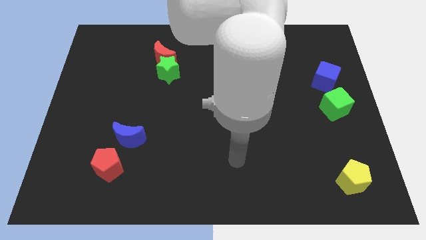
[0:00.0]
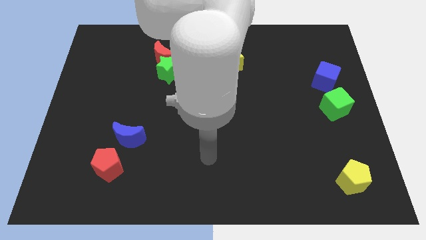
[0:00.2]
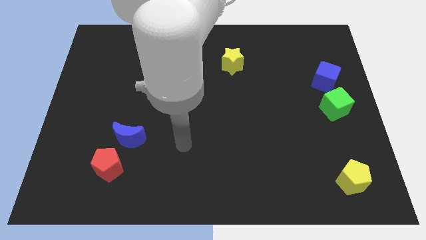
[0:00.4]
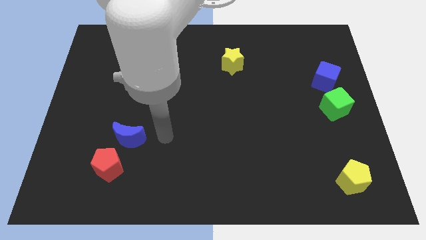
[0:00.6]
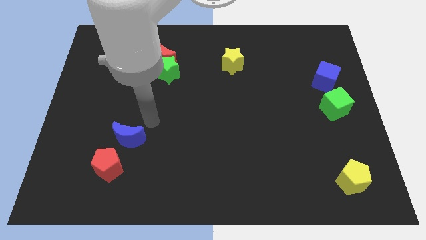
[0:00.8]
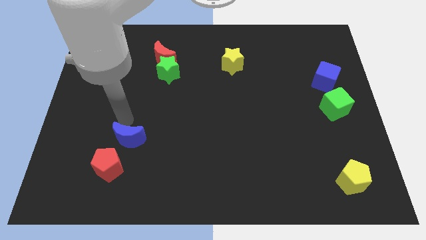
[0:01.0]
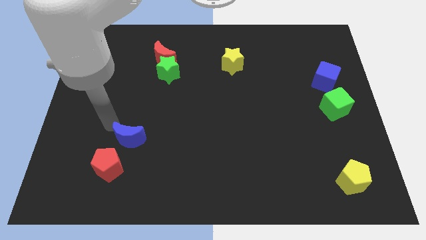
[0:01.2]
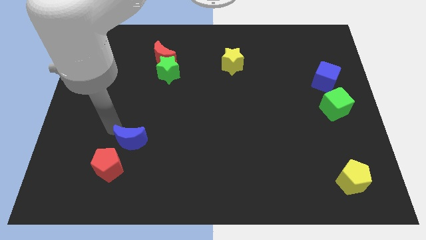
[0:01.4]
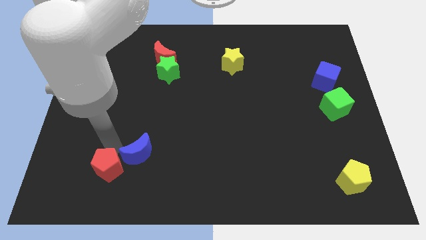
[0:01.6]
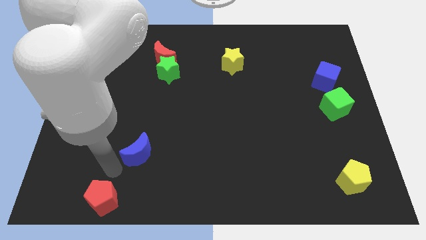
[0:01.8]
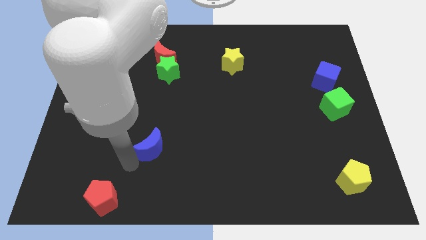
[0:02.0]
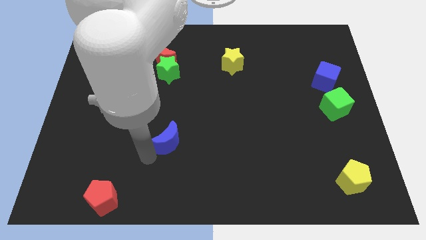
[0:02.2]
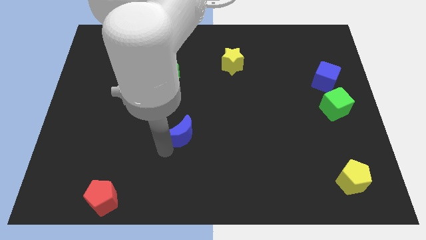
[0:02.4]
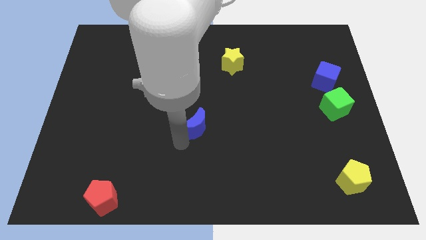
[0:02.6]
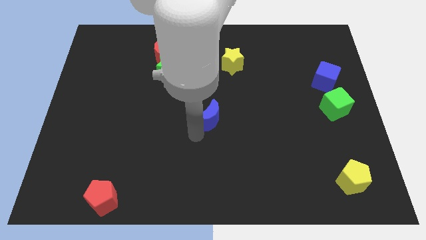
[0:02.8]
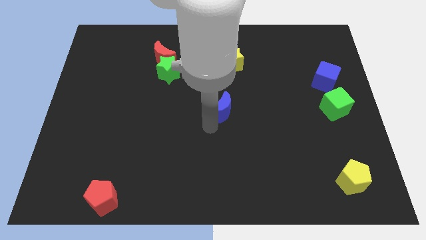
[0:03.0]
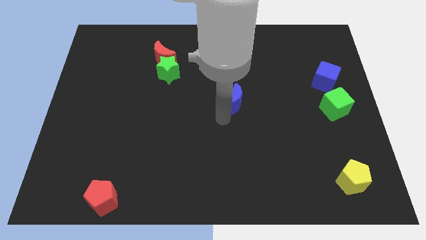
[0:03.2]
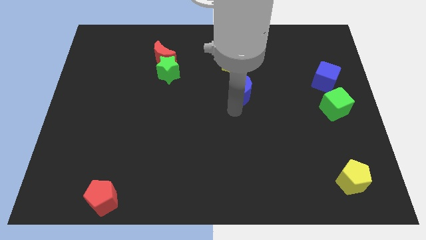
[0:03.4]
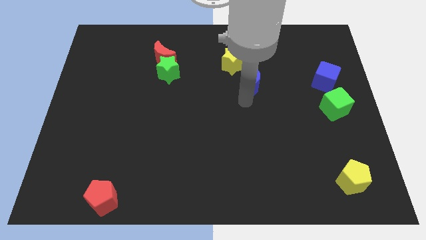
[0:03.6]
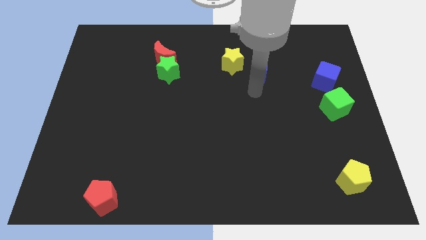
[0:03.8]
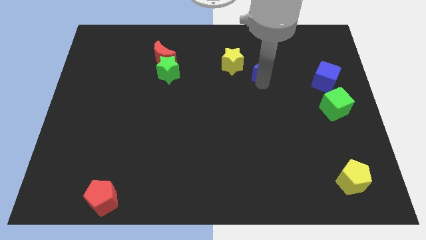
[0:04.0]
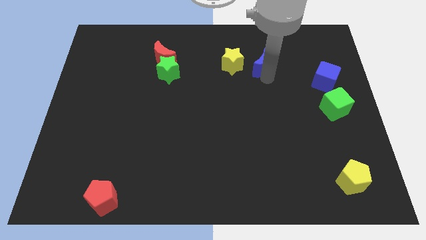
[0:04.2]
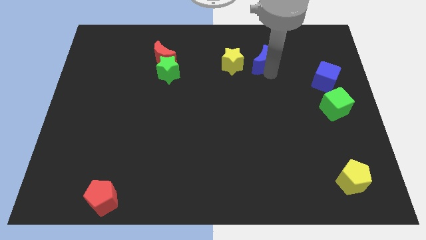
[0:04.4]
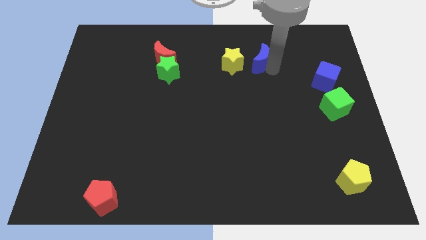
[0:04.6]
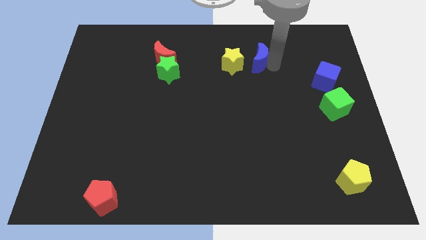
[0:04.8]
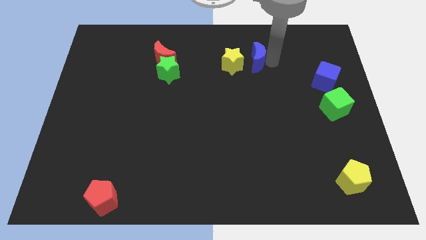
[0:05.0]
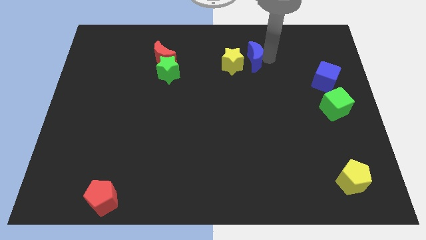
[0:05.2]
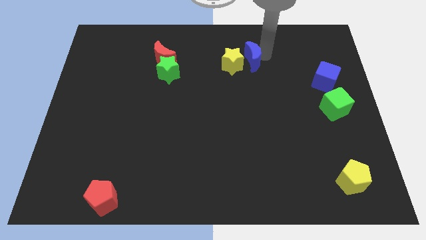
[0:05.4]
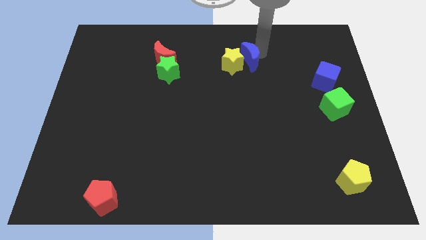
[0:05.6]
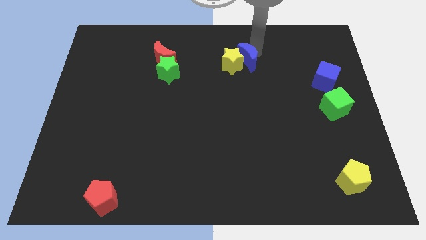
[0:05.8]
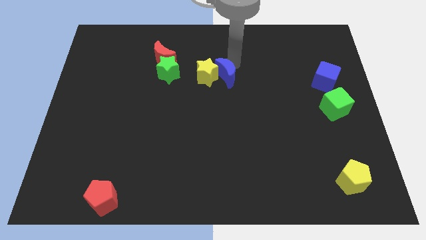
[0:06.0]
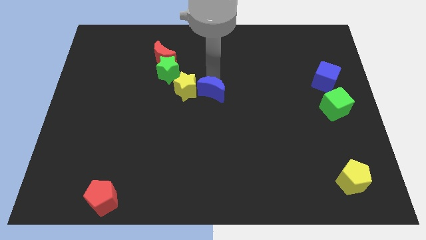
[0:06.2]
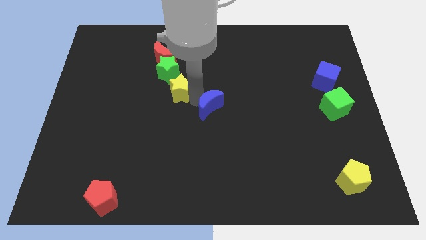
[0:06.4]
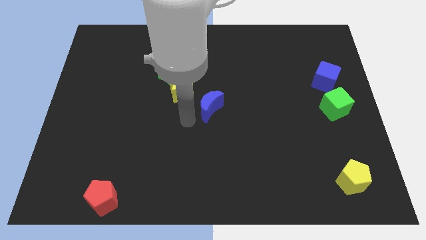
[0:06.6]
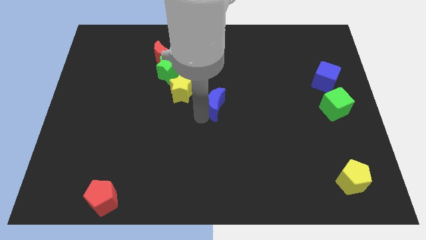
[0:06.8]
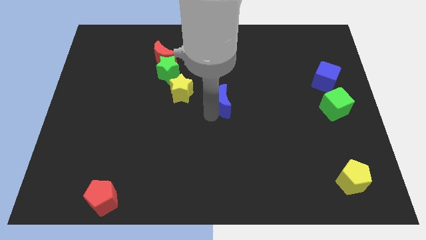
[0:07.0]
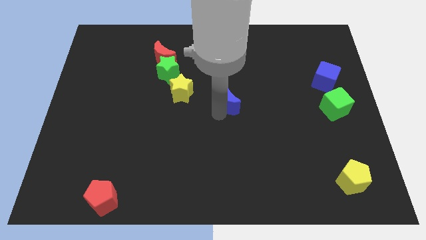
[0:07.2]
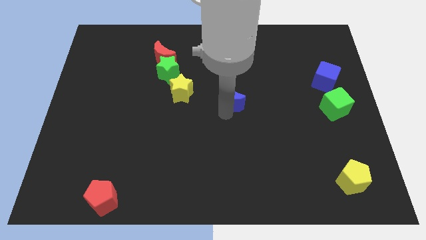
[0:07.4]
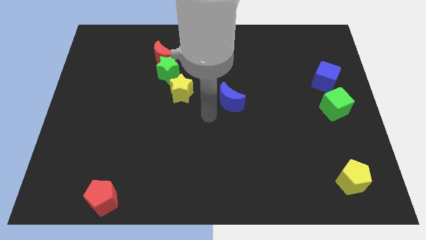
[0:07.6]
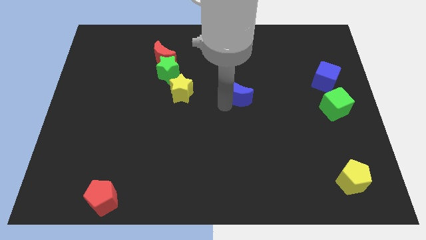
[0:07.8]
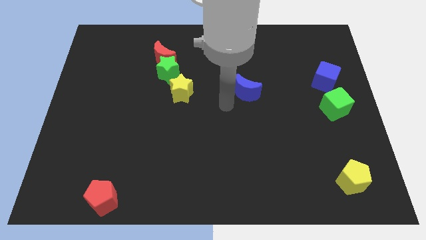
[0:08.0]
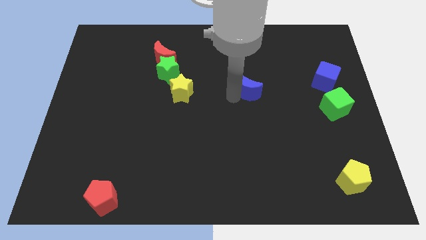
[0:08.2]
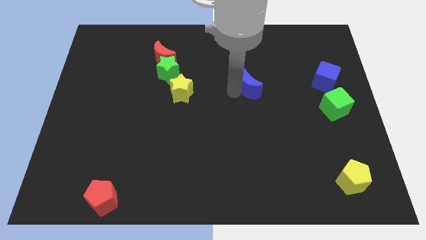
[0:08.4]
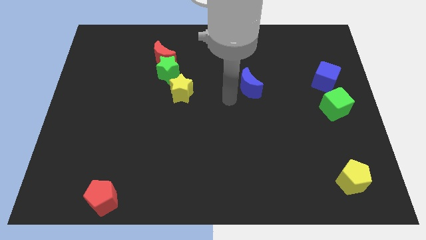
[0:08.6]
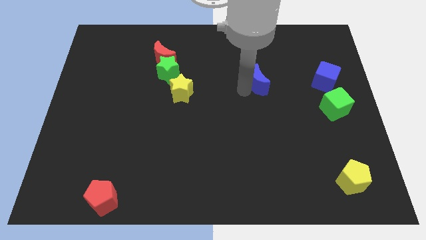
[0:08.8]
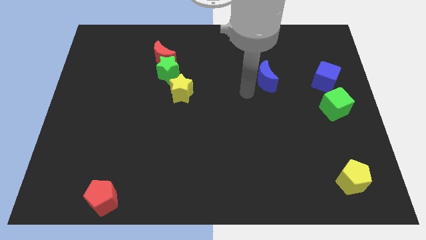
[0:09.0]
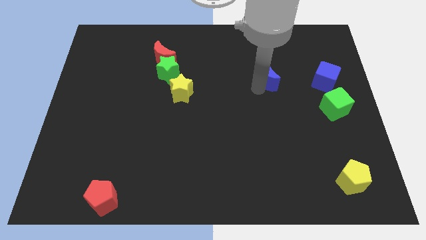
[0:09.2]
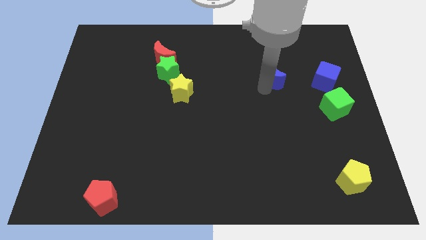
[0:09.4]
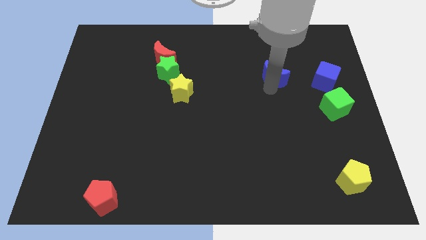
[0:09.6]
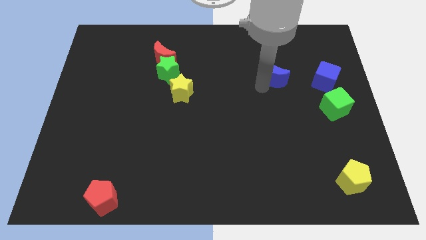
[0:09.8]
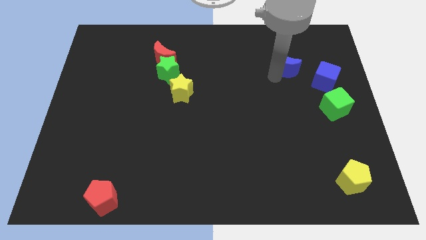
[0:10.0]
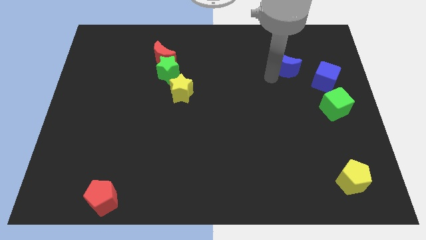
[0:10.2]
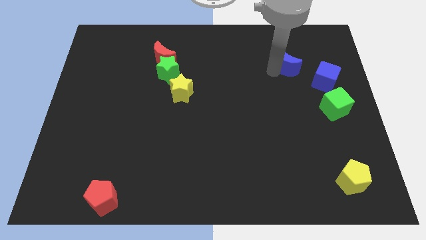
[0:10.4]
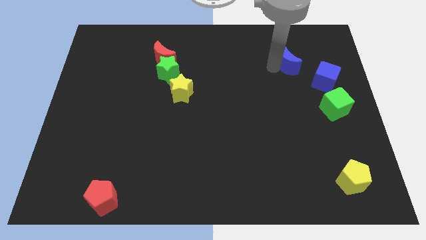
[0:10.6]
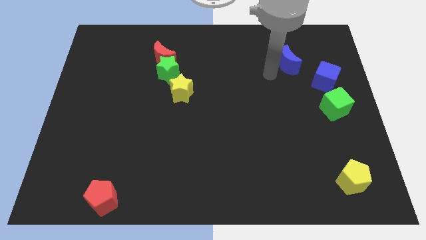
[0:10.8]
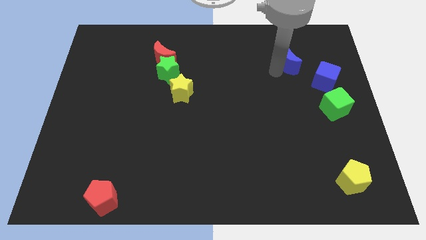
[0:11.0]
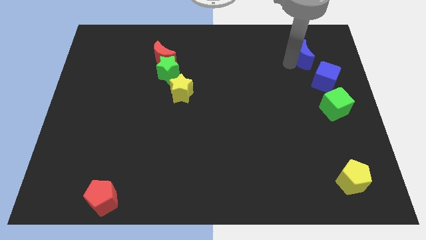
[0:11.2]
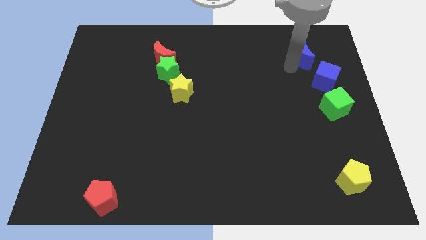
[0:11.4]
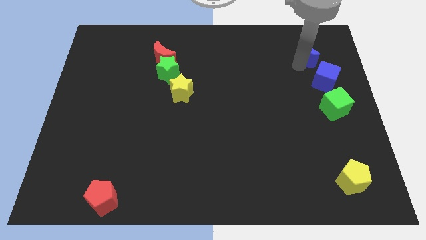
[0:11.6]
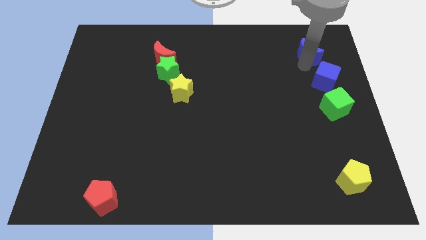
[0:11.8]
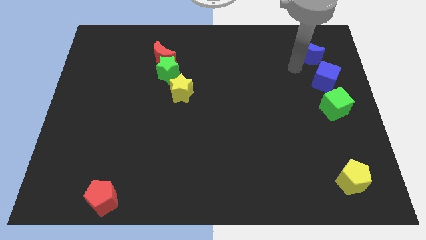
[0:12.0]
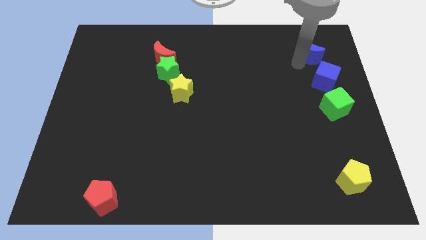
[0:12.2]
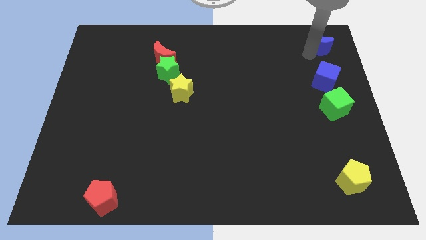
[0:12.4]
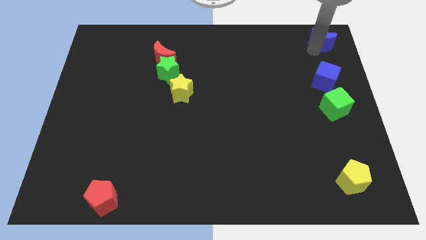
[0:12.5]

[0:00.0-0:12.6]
push the blue moon to the top right corner
